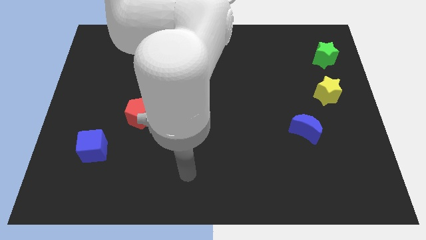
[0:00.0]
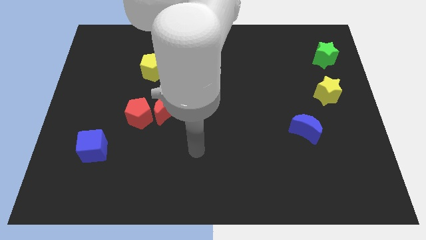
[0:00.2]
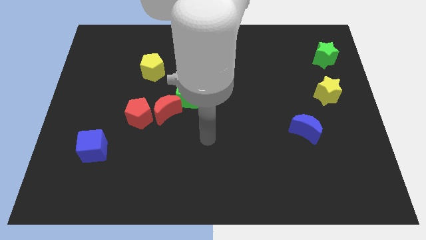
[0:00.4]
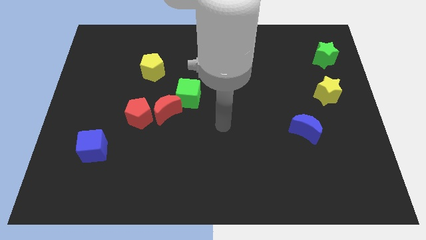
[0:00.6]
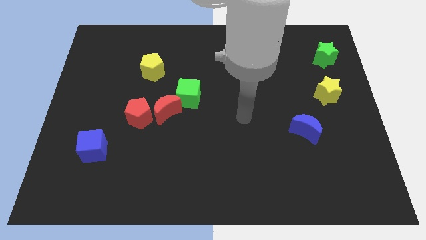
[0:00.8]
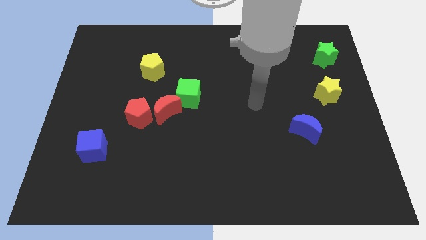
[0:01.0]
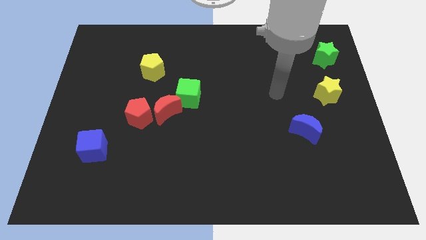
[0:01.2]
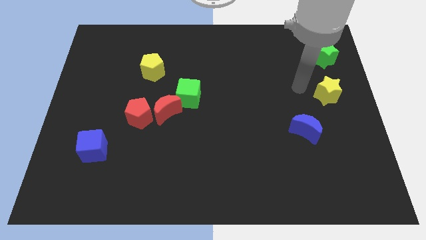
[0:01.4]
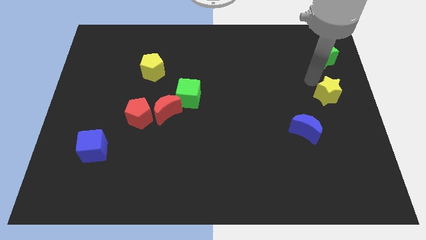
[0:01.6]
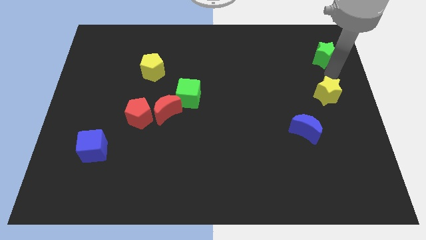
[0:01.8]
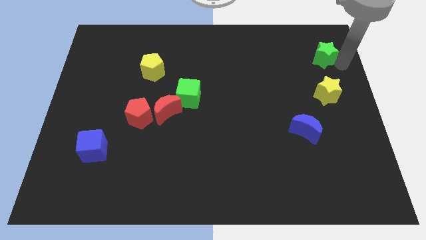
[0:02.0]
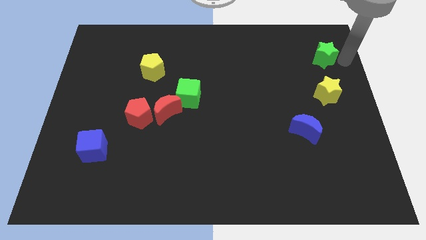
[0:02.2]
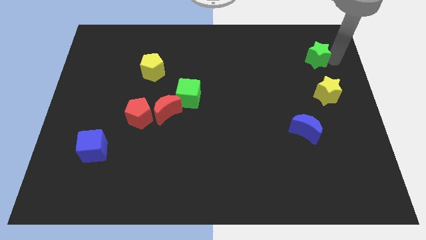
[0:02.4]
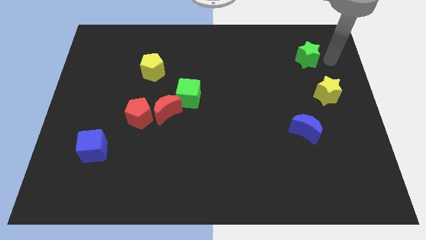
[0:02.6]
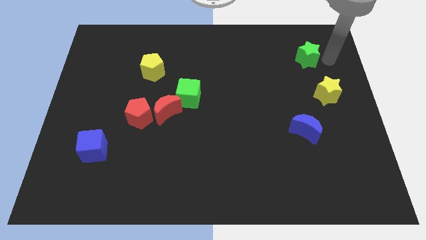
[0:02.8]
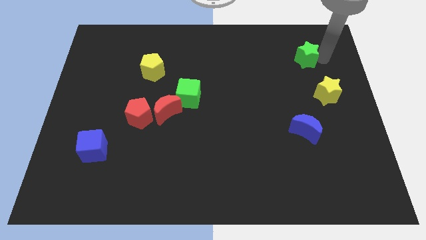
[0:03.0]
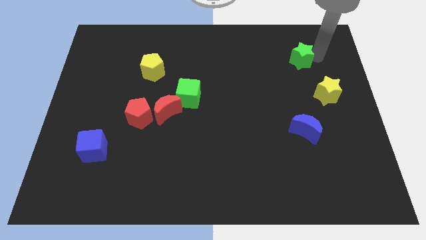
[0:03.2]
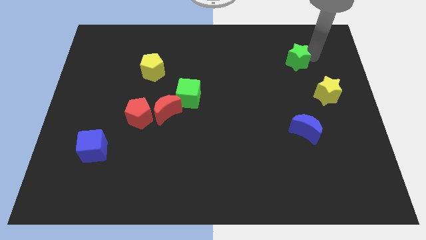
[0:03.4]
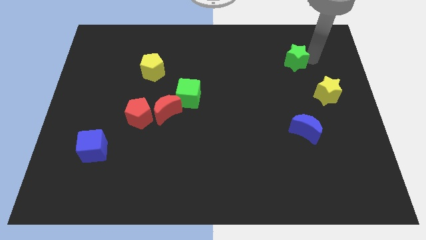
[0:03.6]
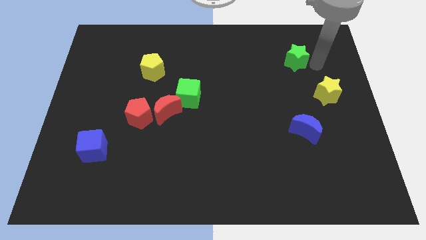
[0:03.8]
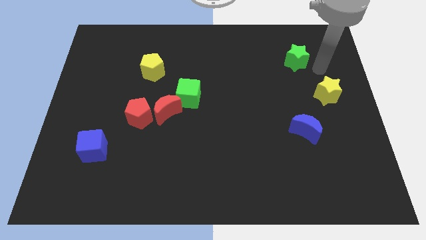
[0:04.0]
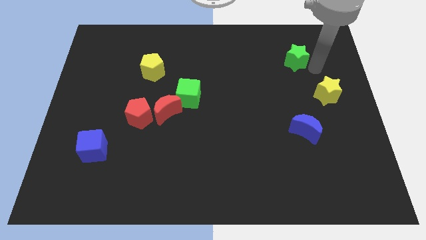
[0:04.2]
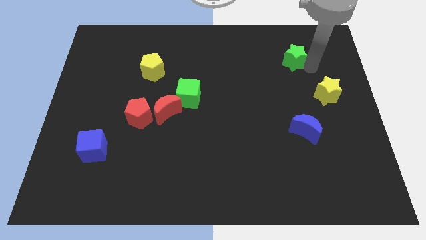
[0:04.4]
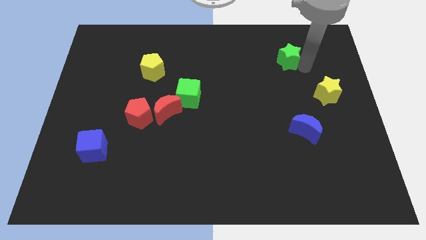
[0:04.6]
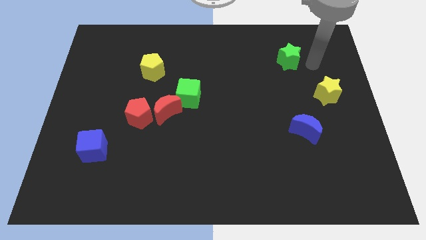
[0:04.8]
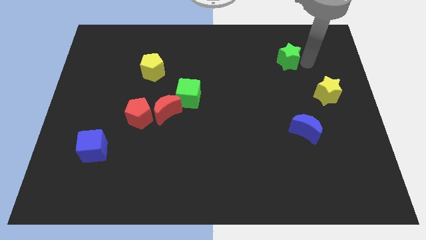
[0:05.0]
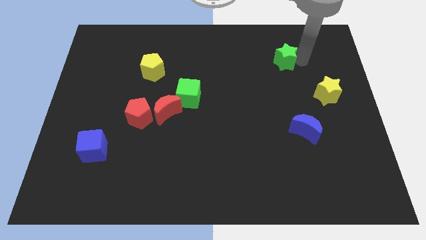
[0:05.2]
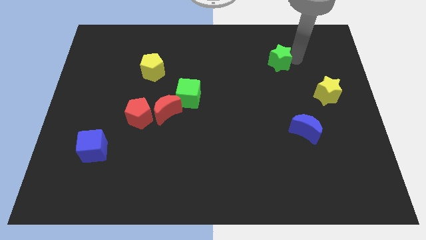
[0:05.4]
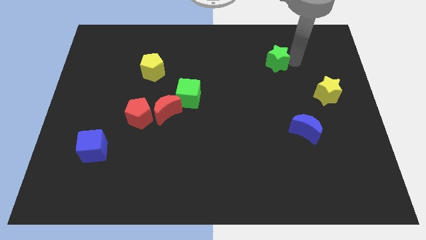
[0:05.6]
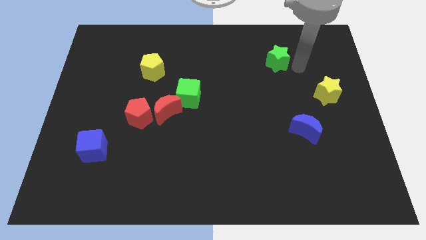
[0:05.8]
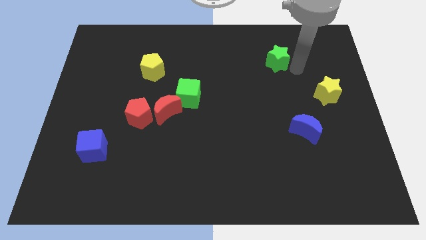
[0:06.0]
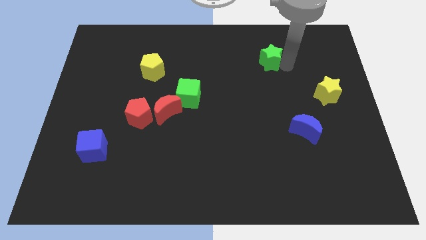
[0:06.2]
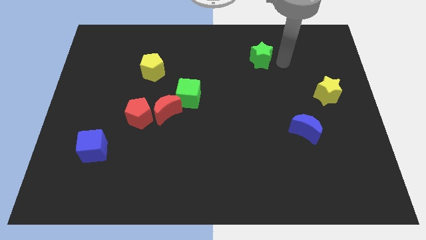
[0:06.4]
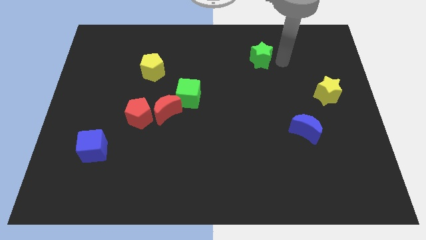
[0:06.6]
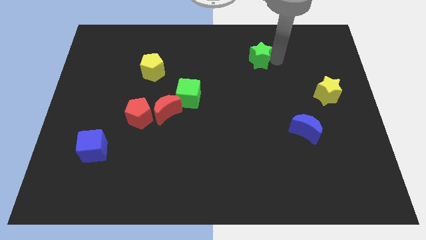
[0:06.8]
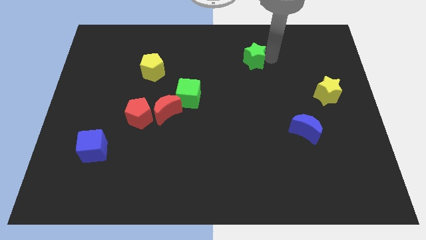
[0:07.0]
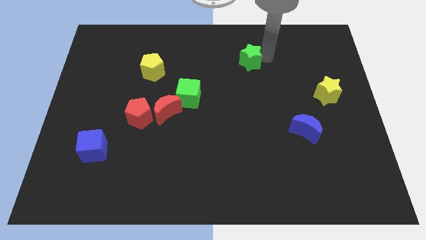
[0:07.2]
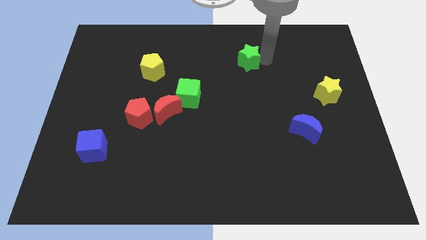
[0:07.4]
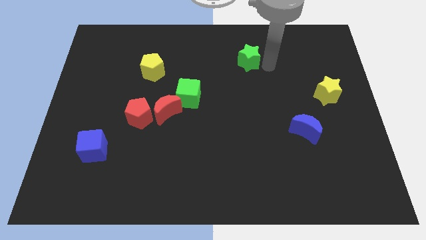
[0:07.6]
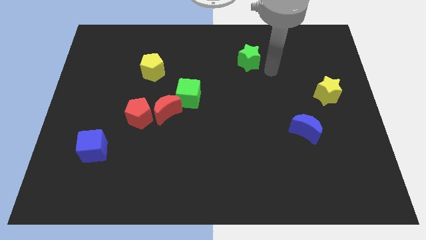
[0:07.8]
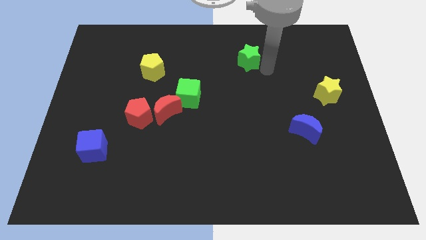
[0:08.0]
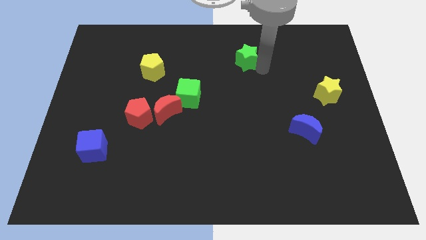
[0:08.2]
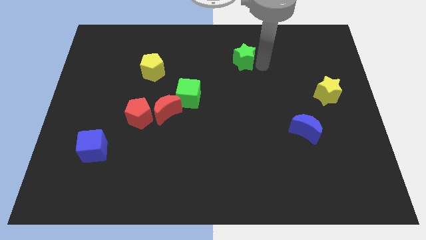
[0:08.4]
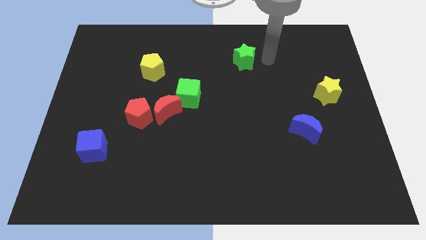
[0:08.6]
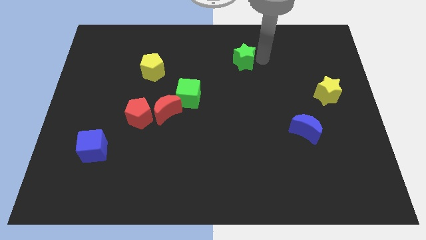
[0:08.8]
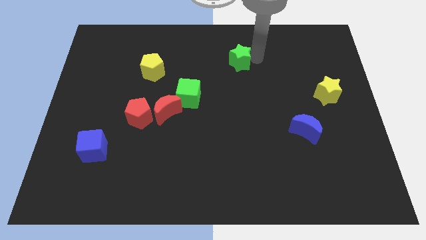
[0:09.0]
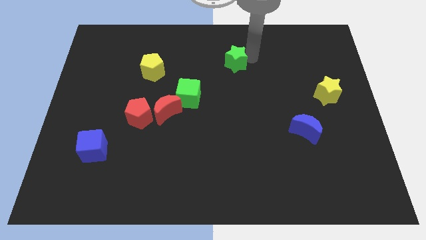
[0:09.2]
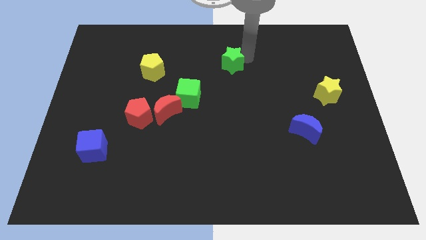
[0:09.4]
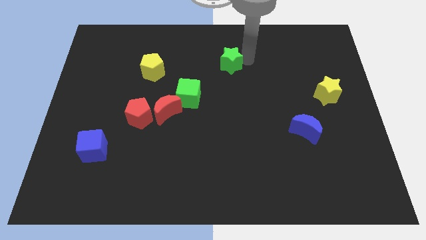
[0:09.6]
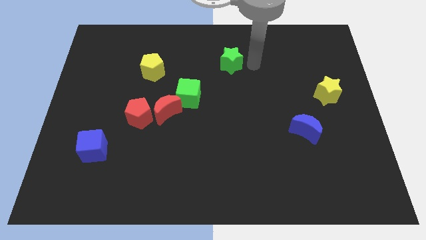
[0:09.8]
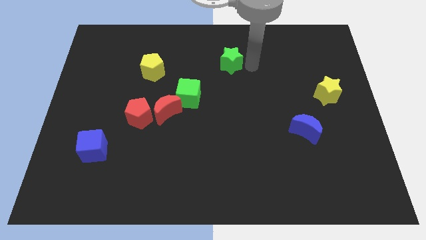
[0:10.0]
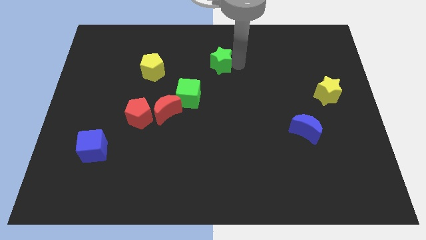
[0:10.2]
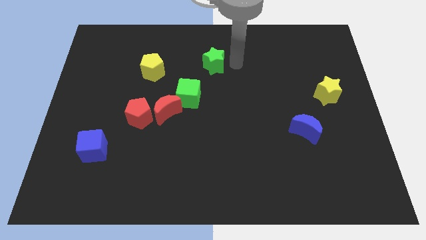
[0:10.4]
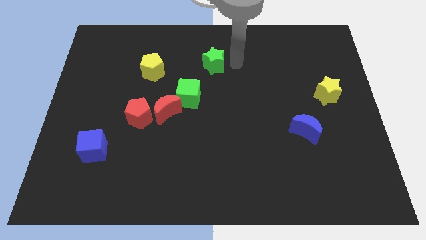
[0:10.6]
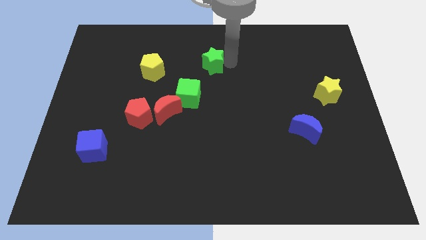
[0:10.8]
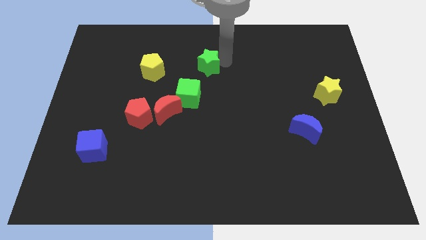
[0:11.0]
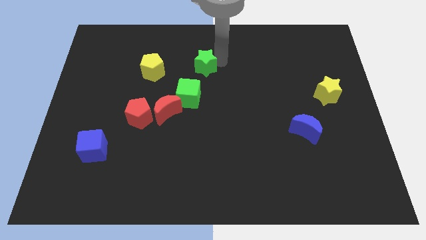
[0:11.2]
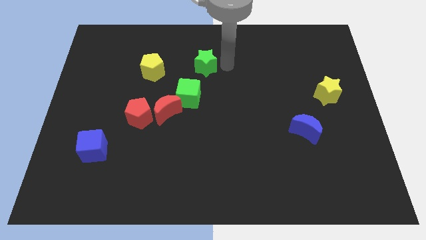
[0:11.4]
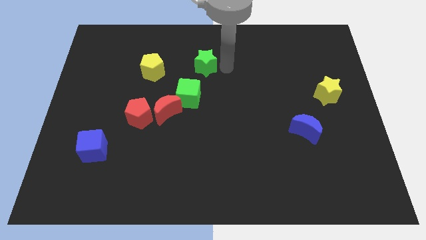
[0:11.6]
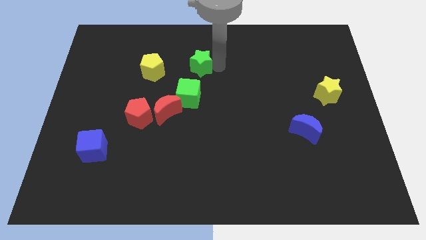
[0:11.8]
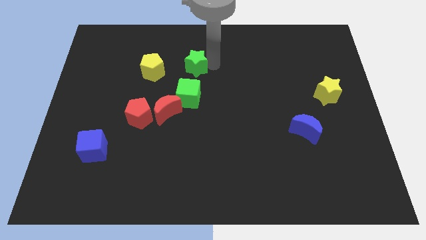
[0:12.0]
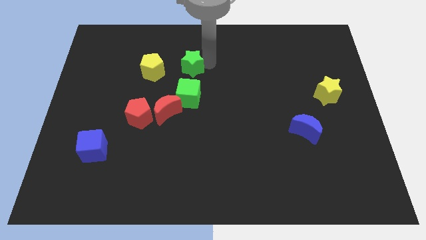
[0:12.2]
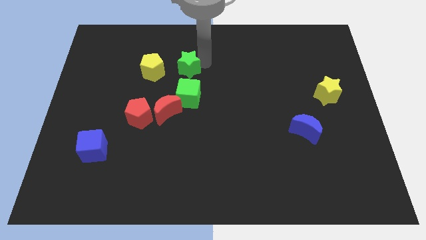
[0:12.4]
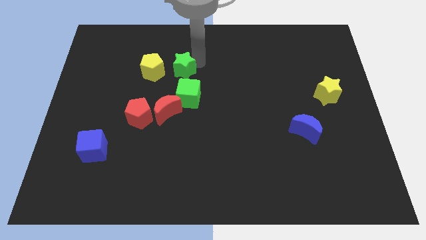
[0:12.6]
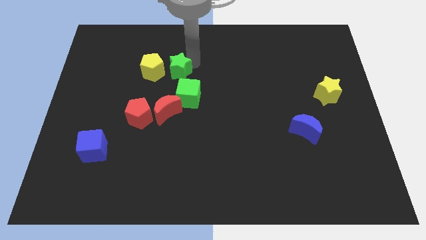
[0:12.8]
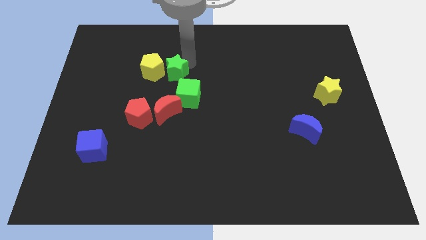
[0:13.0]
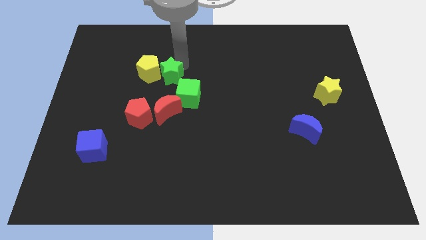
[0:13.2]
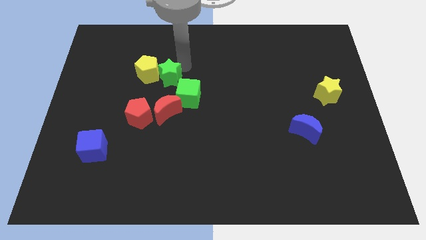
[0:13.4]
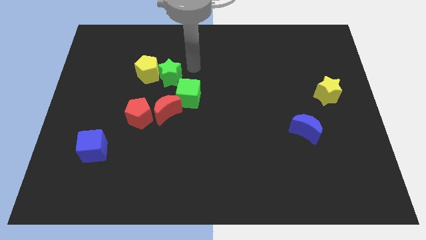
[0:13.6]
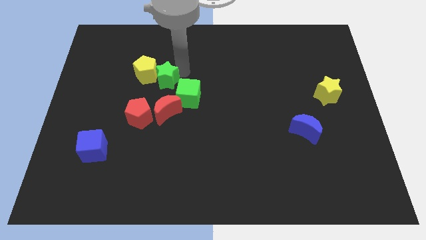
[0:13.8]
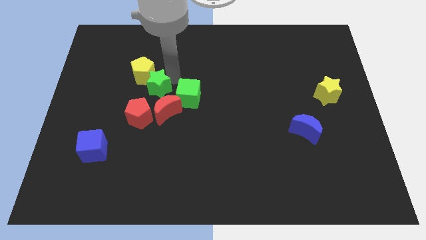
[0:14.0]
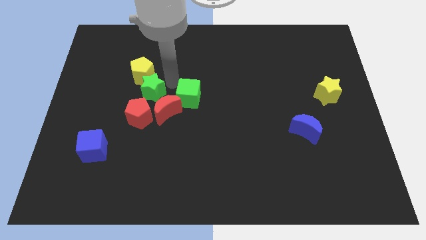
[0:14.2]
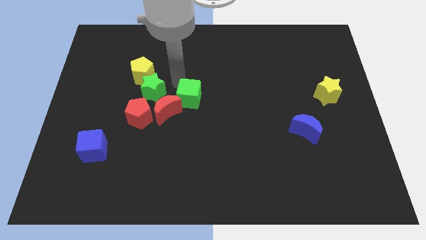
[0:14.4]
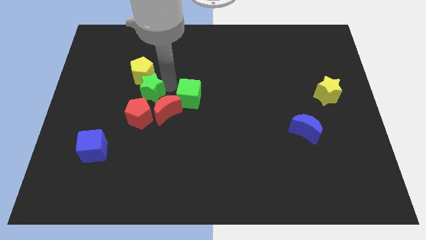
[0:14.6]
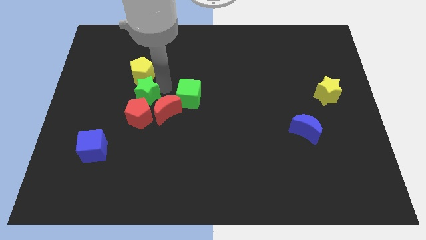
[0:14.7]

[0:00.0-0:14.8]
move the green star just left of the red moon
